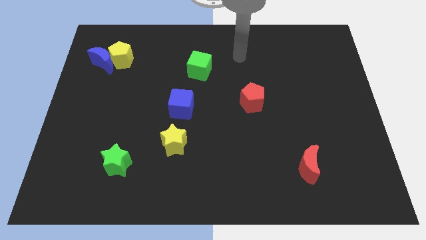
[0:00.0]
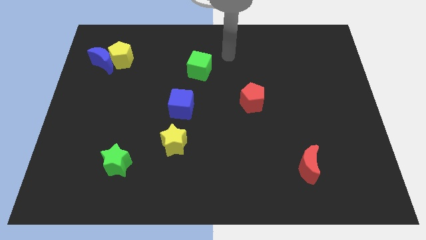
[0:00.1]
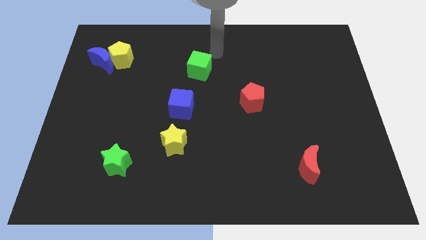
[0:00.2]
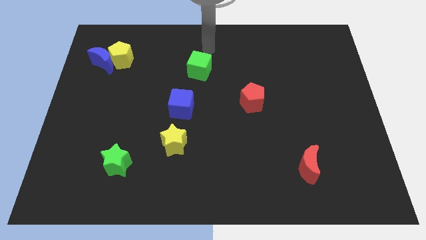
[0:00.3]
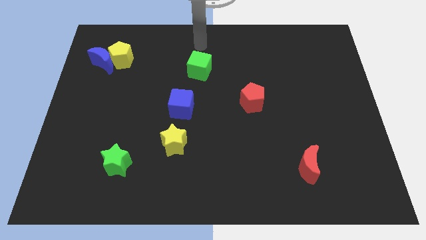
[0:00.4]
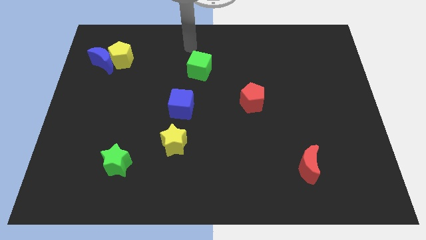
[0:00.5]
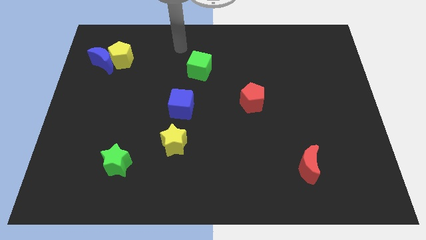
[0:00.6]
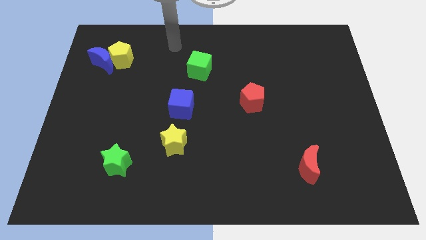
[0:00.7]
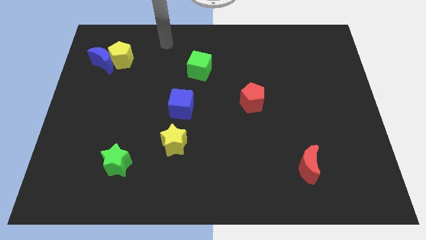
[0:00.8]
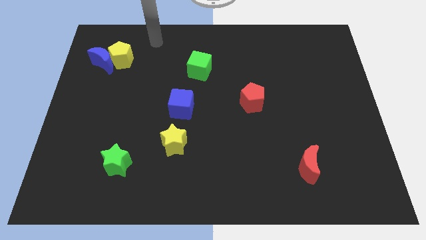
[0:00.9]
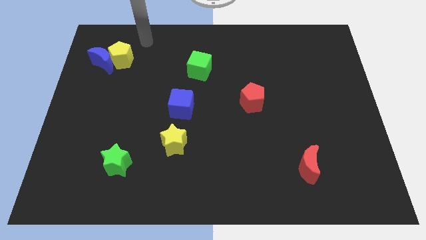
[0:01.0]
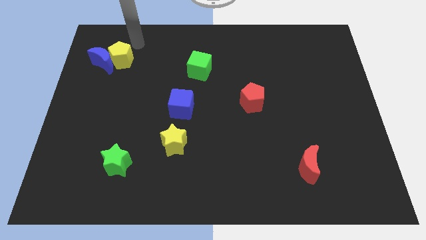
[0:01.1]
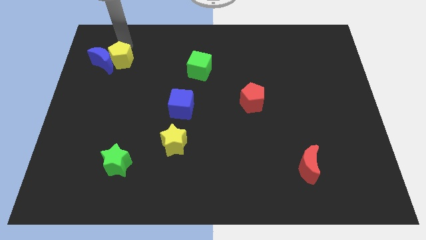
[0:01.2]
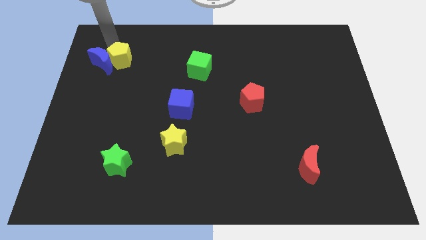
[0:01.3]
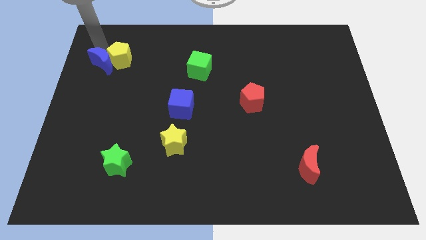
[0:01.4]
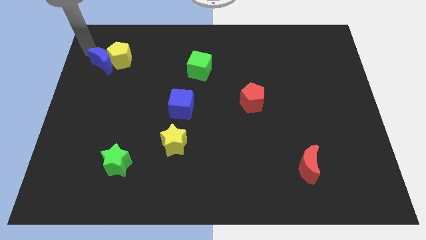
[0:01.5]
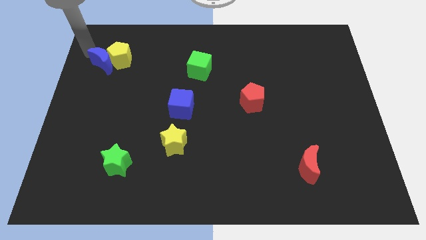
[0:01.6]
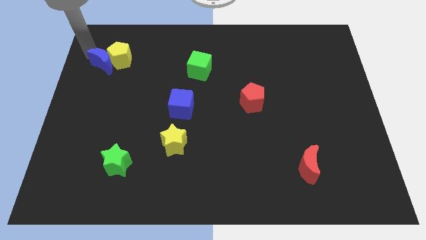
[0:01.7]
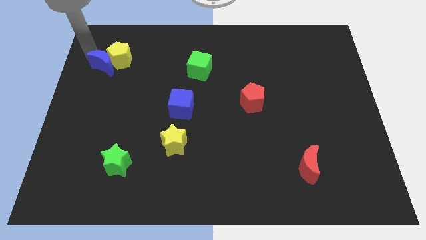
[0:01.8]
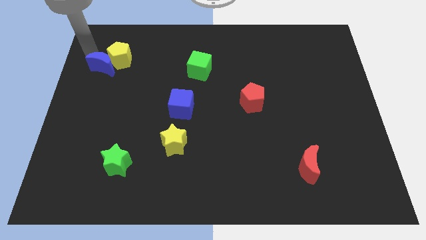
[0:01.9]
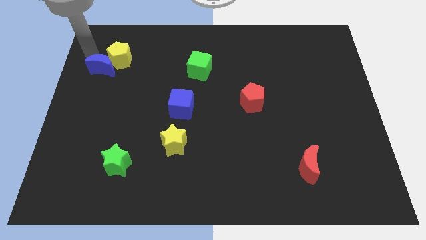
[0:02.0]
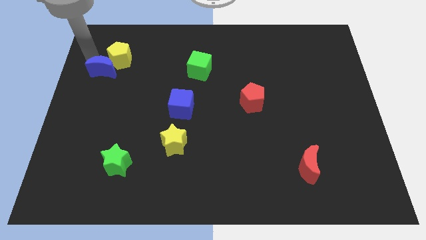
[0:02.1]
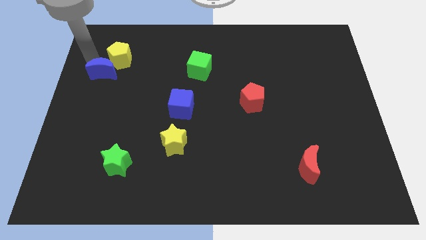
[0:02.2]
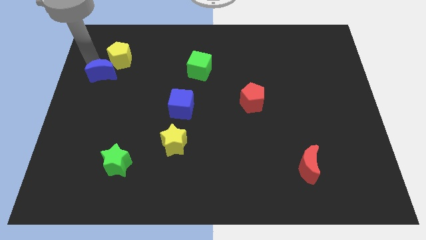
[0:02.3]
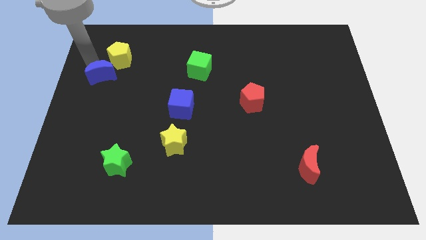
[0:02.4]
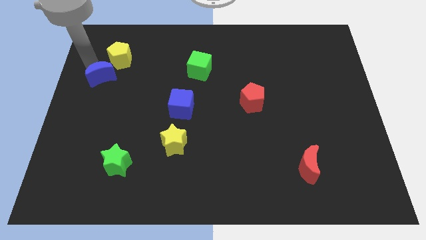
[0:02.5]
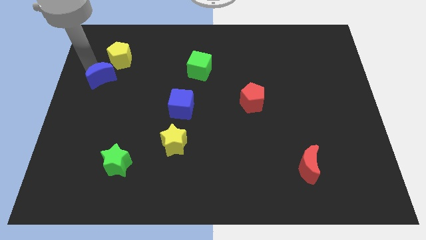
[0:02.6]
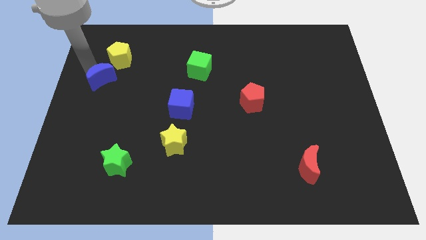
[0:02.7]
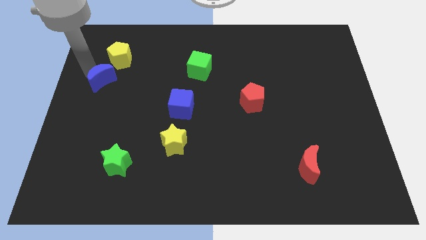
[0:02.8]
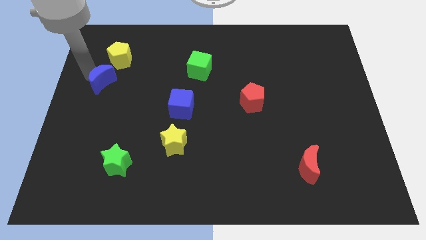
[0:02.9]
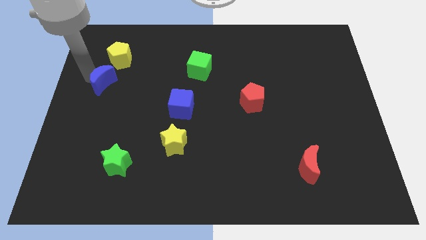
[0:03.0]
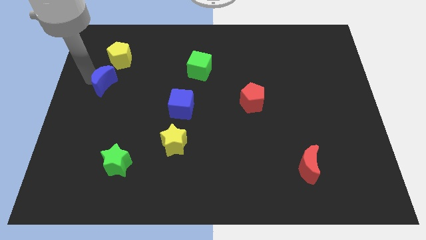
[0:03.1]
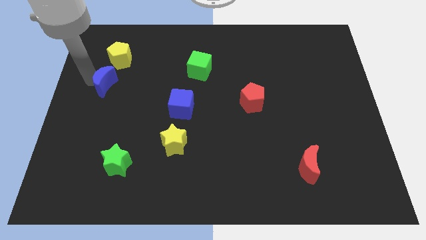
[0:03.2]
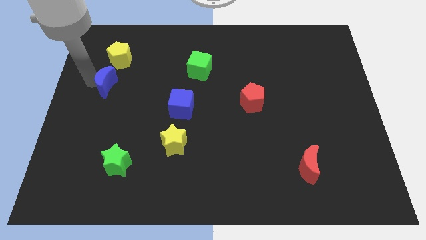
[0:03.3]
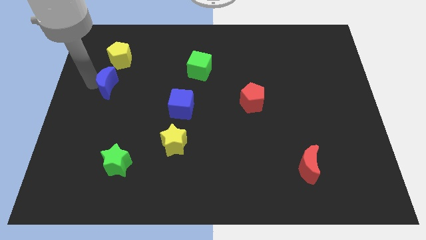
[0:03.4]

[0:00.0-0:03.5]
slightly slide the blue moon downwards and right diagonally

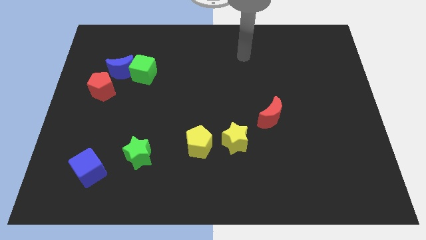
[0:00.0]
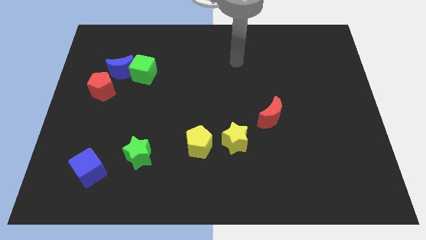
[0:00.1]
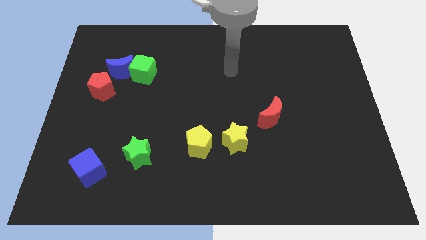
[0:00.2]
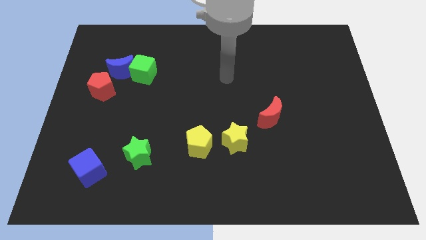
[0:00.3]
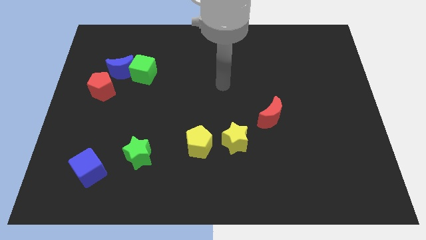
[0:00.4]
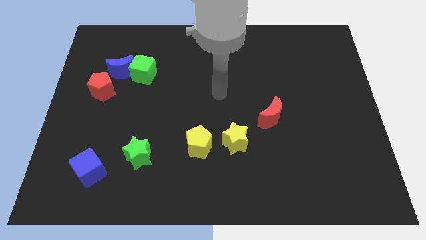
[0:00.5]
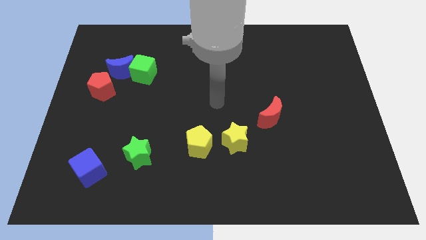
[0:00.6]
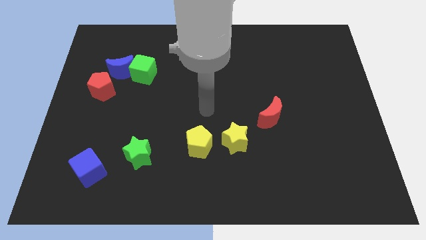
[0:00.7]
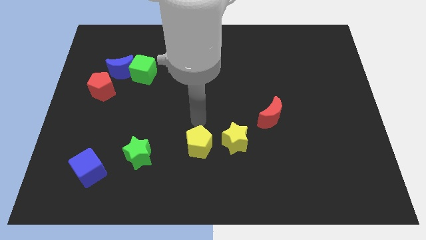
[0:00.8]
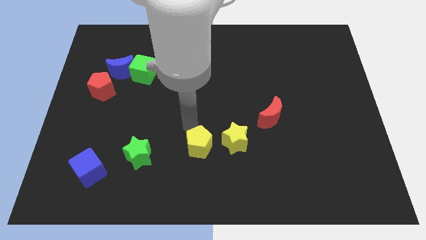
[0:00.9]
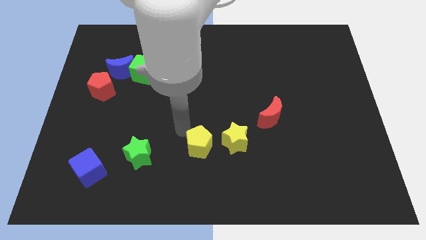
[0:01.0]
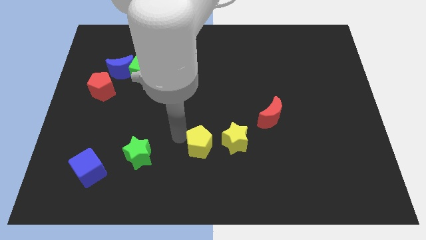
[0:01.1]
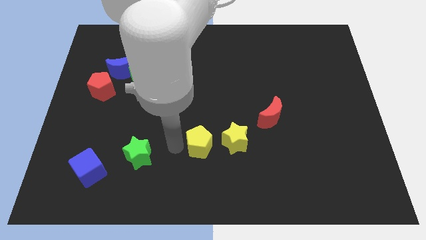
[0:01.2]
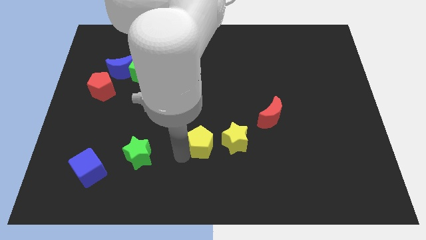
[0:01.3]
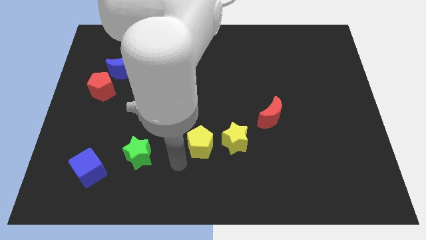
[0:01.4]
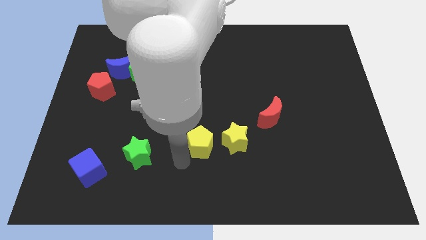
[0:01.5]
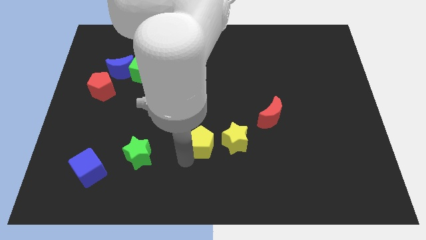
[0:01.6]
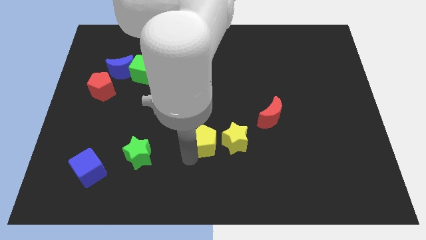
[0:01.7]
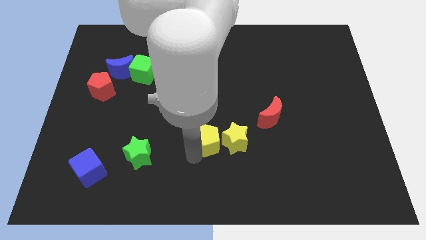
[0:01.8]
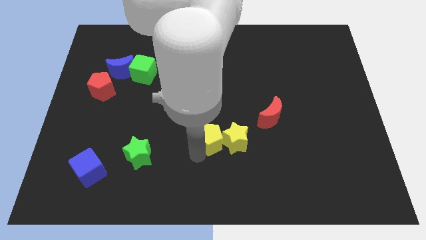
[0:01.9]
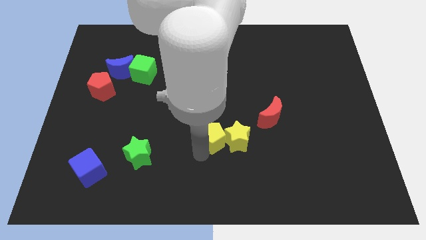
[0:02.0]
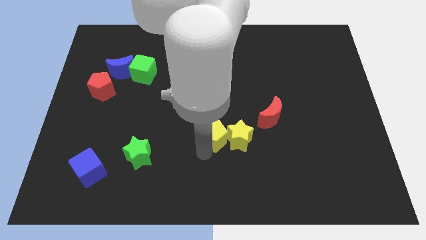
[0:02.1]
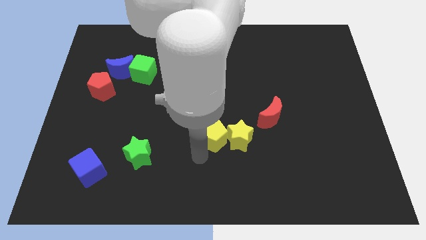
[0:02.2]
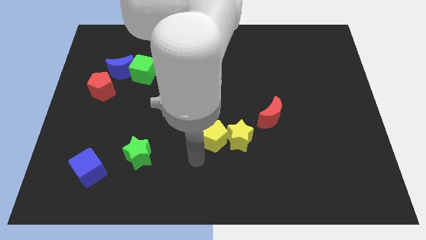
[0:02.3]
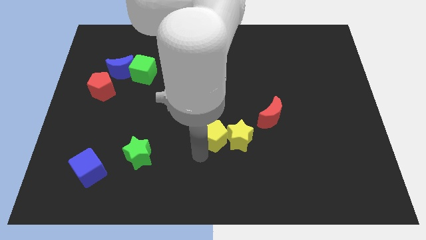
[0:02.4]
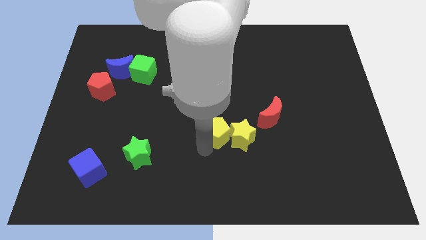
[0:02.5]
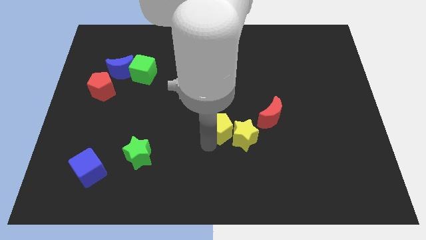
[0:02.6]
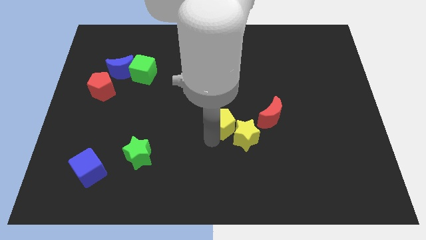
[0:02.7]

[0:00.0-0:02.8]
slightly move the yellow pentagon upwards and to the right diagonally

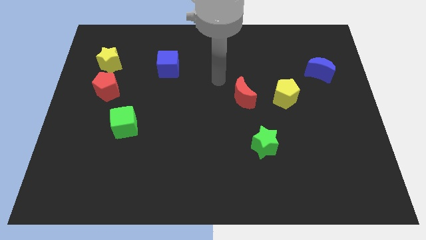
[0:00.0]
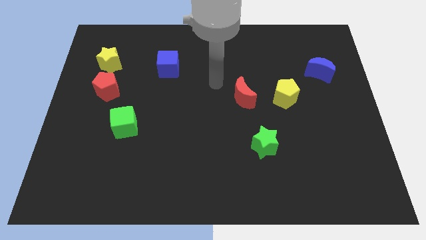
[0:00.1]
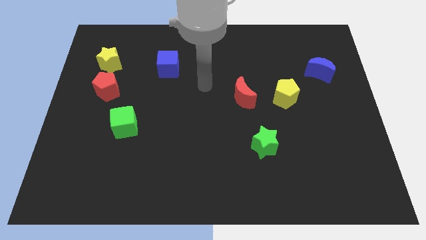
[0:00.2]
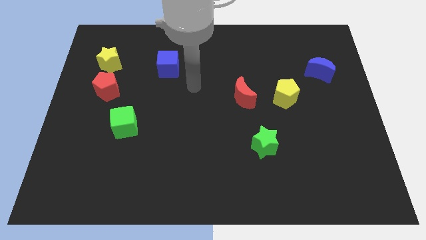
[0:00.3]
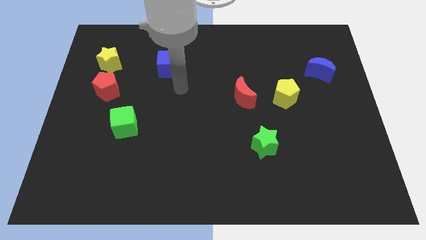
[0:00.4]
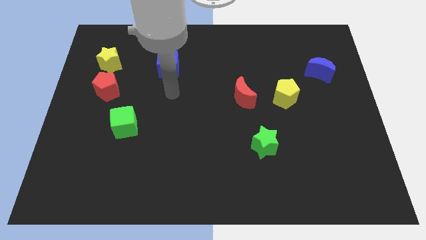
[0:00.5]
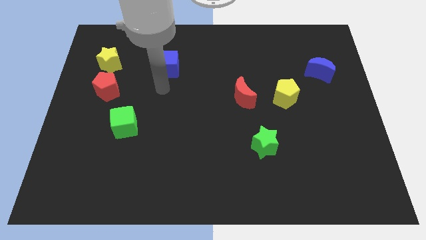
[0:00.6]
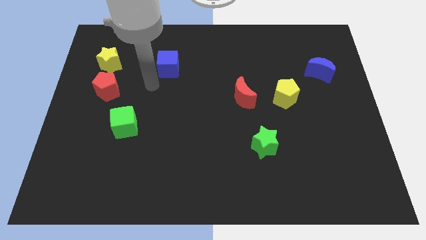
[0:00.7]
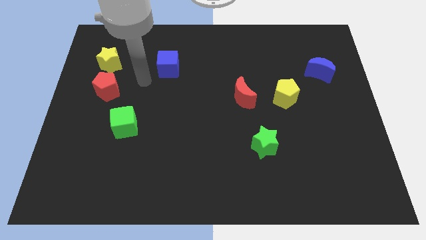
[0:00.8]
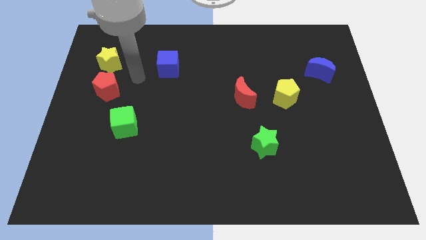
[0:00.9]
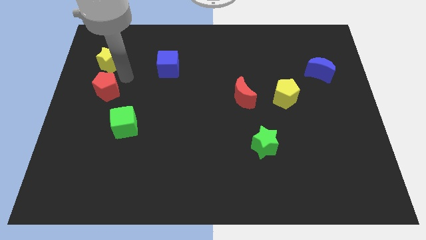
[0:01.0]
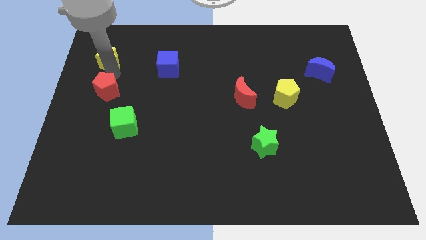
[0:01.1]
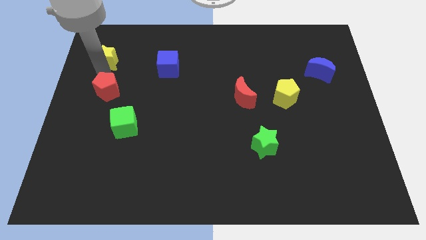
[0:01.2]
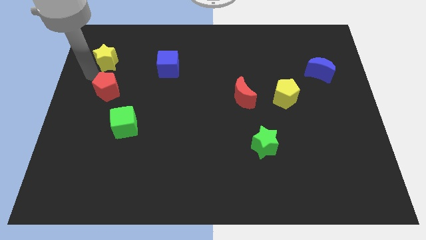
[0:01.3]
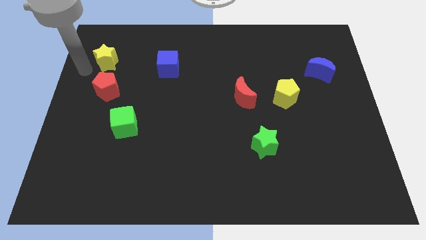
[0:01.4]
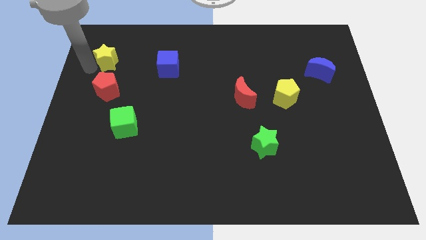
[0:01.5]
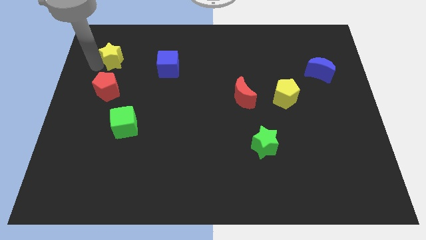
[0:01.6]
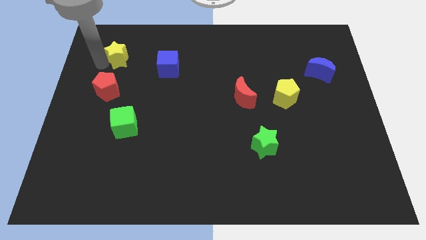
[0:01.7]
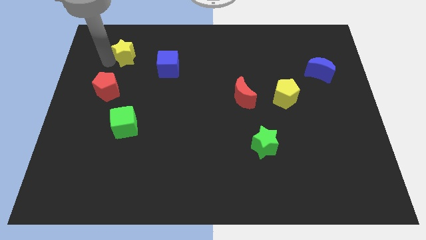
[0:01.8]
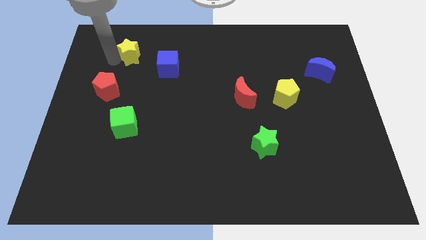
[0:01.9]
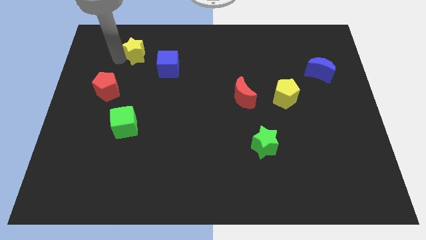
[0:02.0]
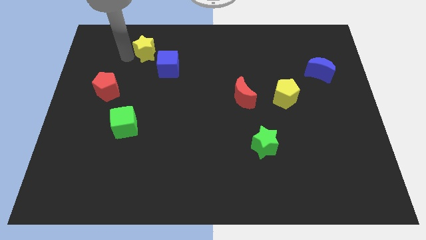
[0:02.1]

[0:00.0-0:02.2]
move the yellow star right a little
